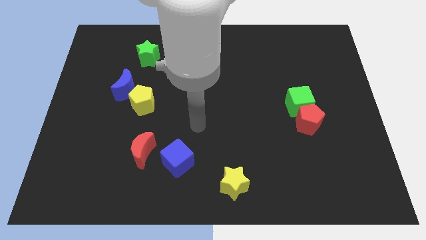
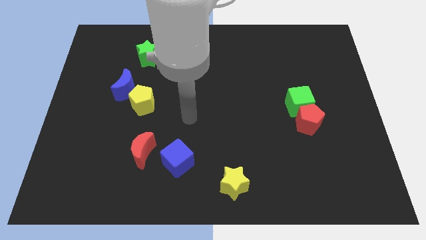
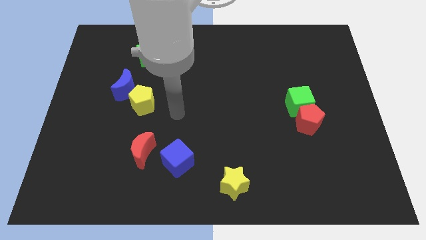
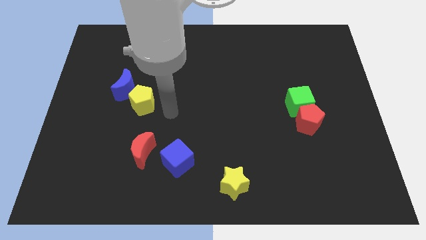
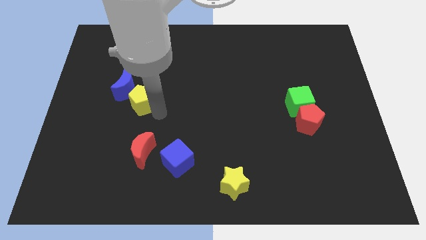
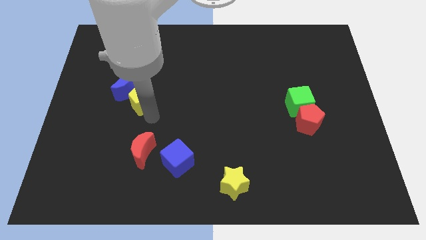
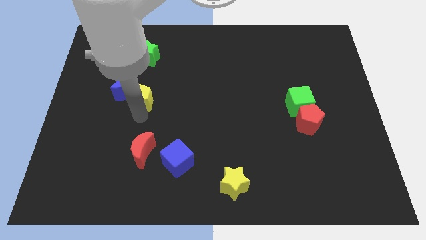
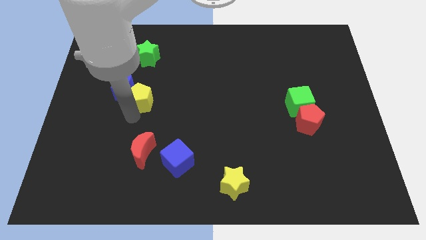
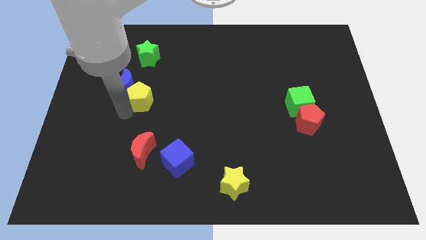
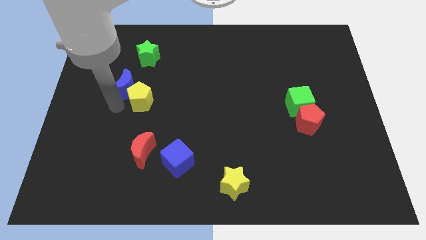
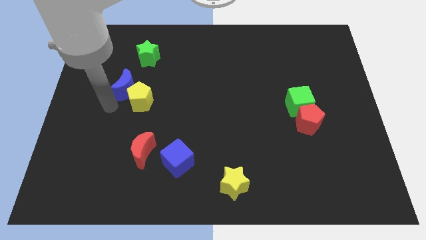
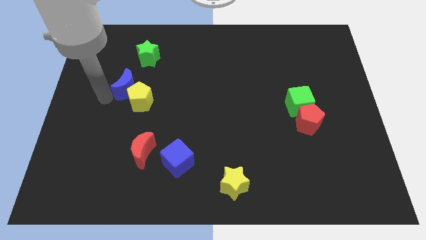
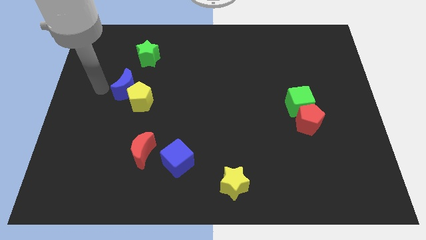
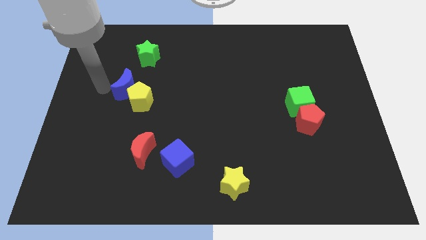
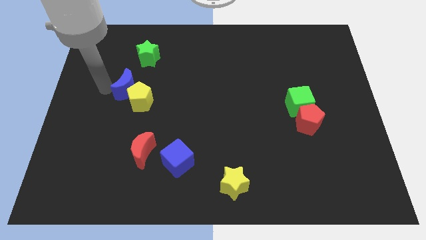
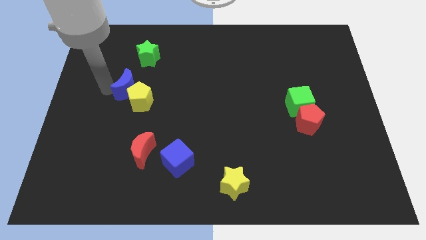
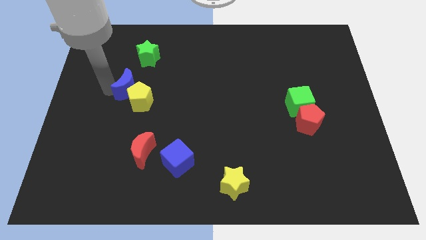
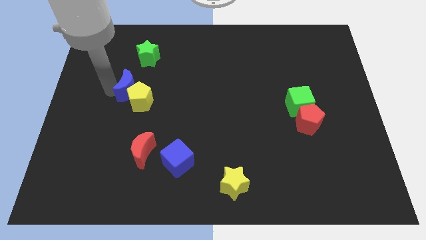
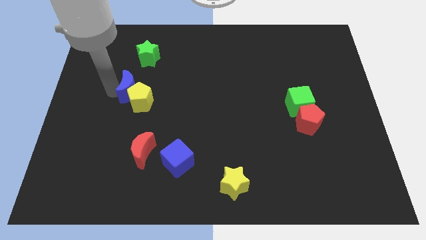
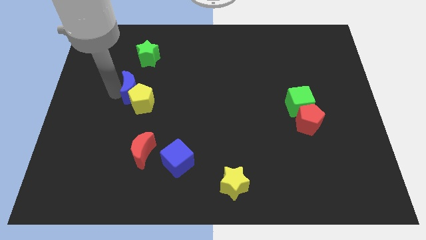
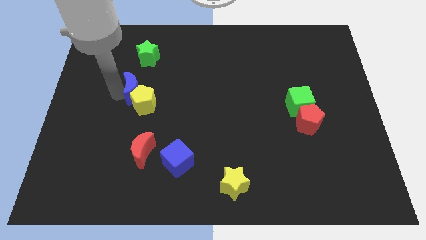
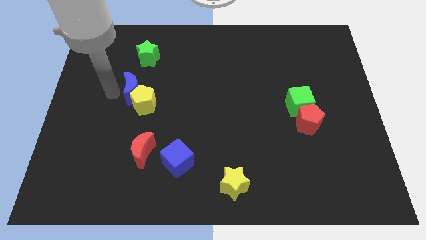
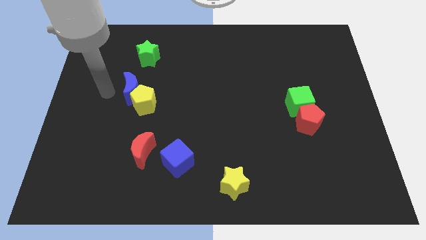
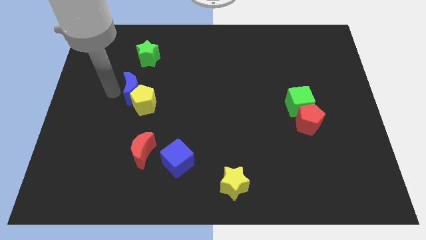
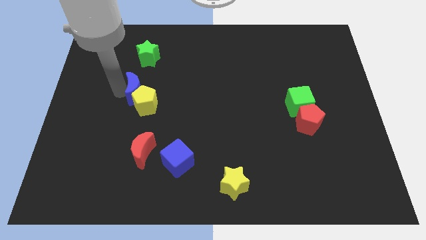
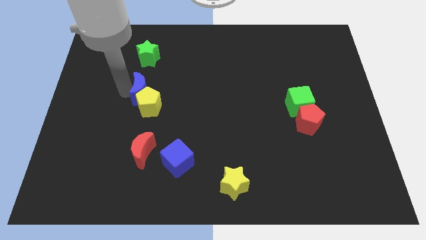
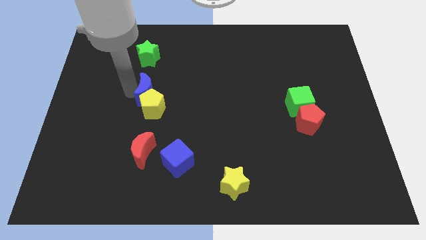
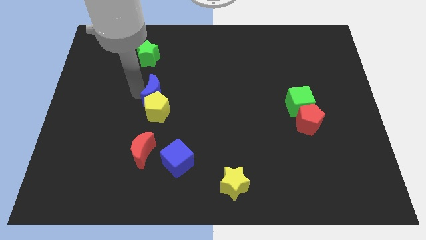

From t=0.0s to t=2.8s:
slightly slide the blue moon to the right

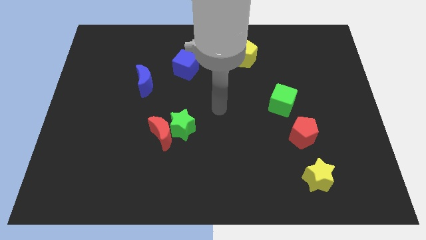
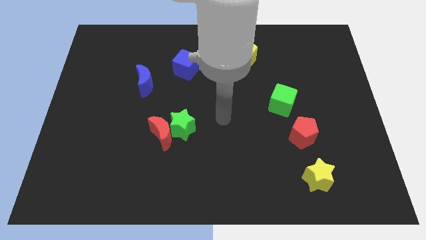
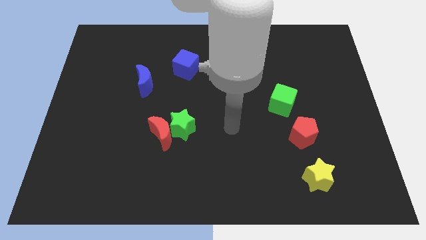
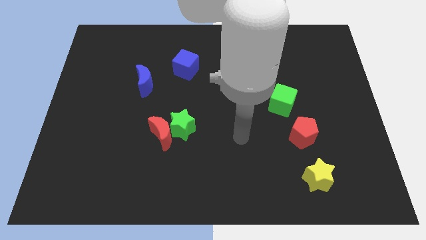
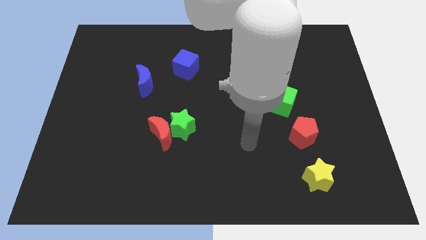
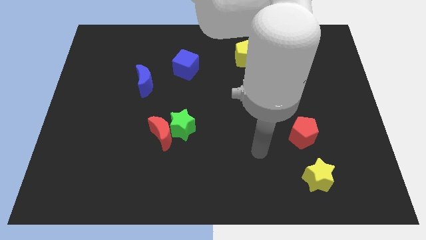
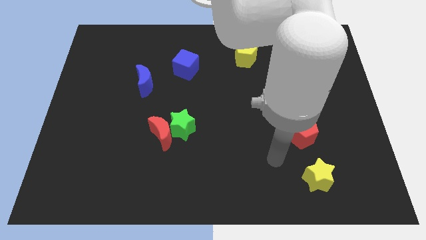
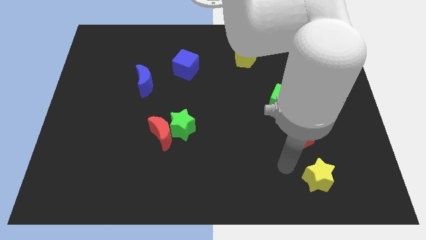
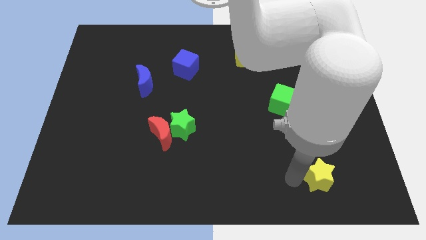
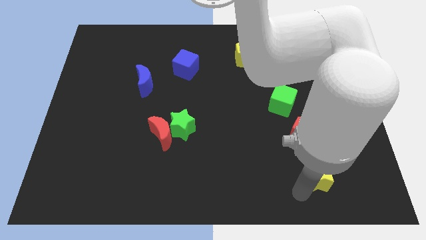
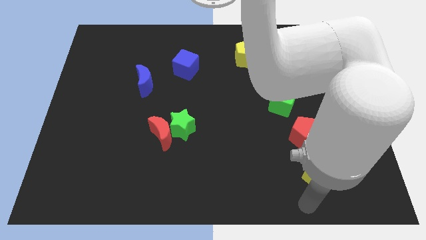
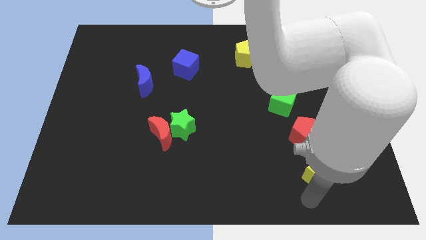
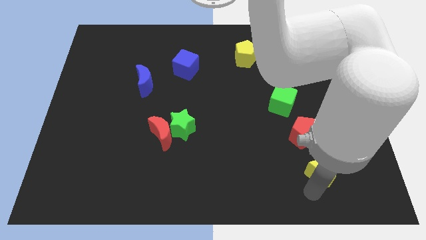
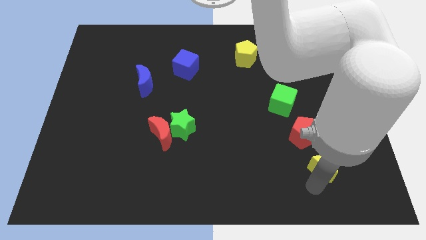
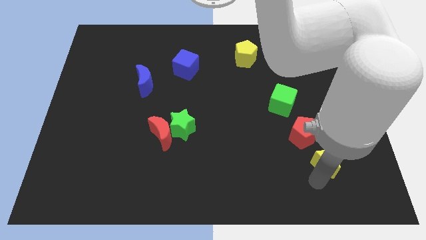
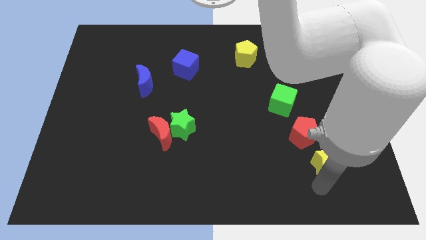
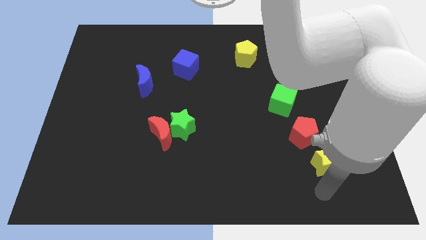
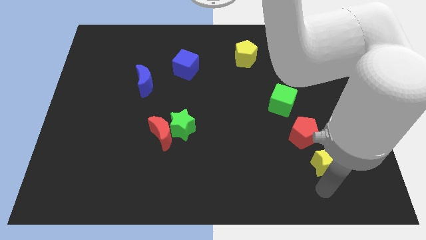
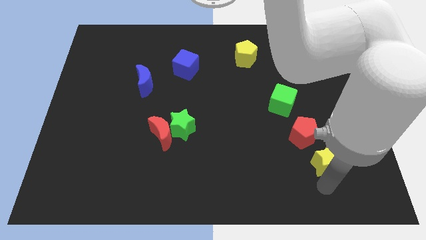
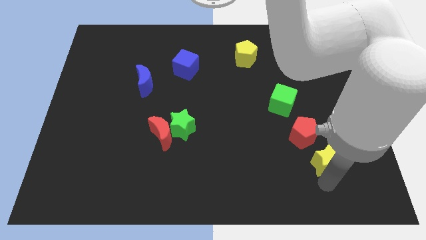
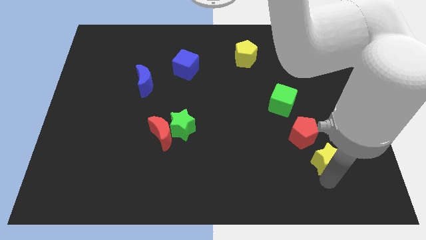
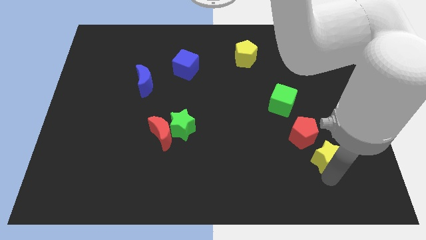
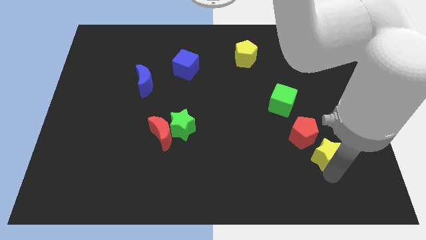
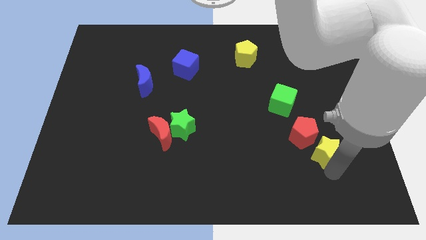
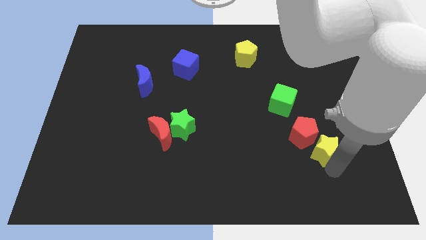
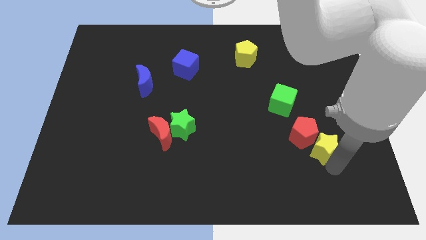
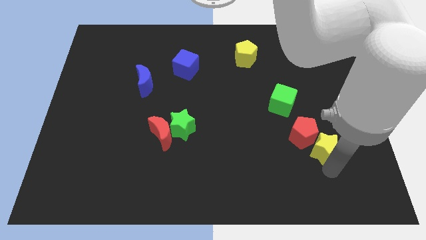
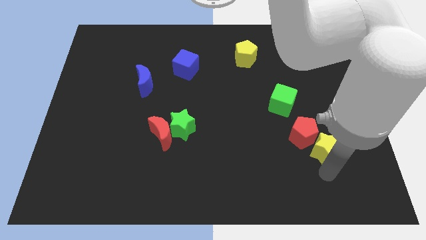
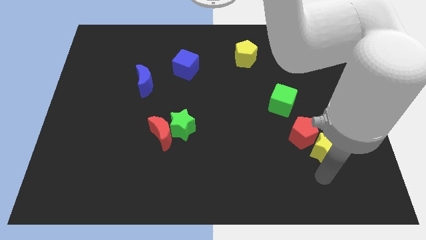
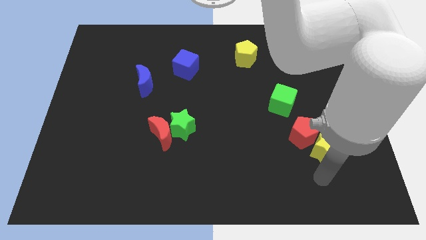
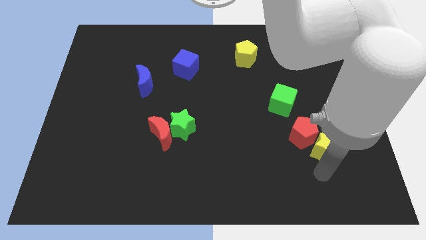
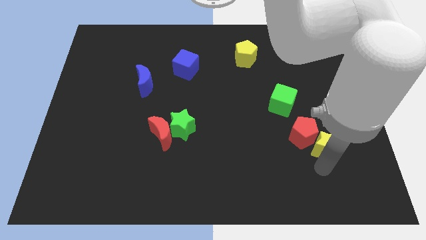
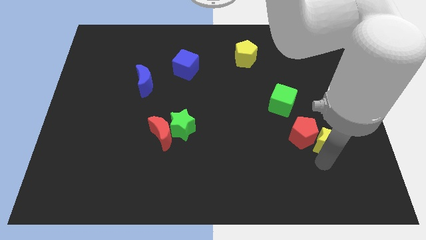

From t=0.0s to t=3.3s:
slide the yellow star somewhat up

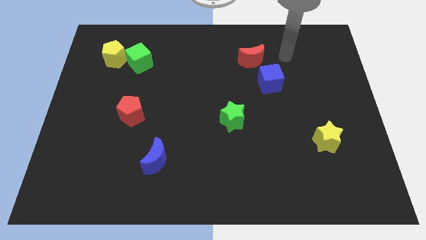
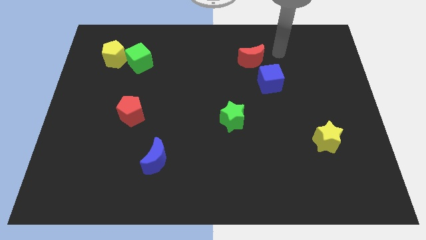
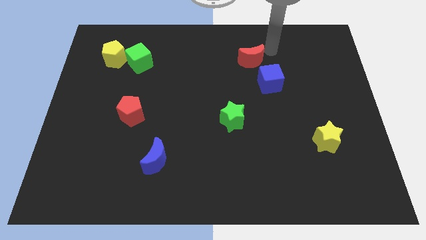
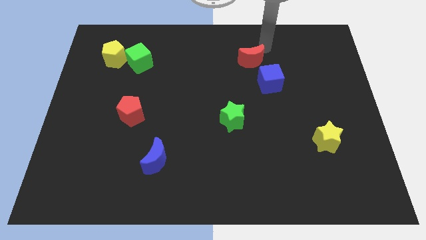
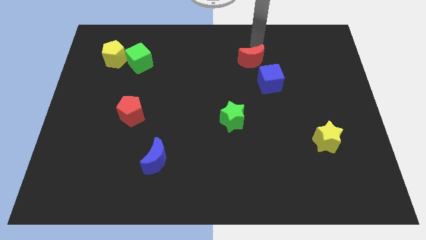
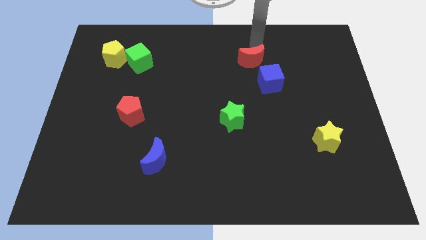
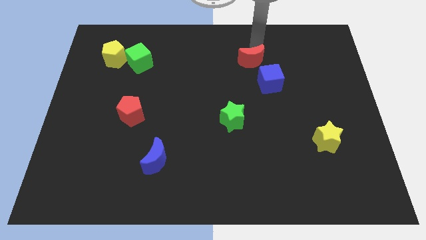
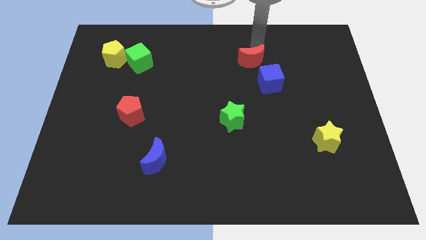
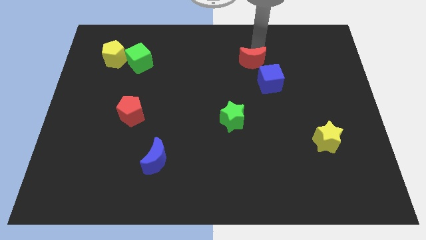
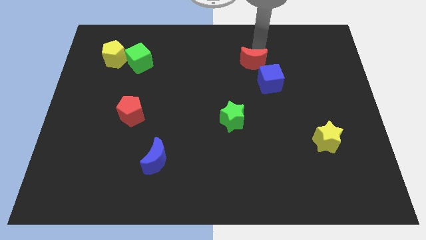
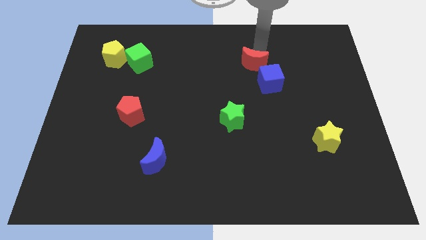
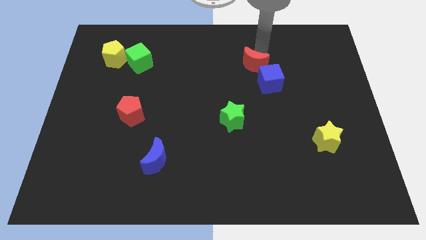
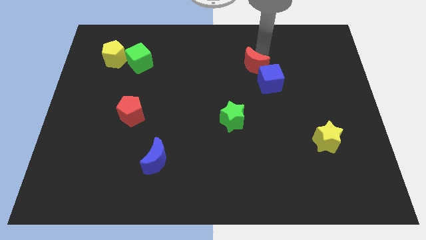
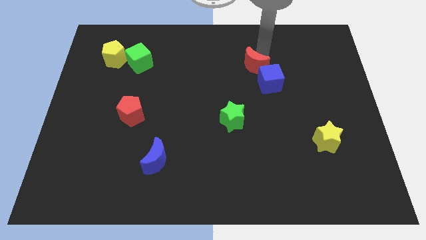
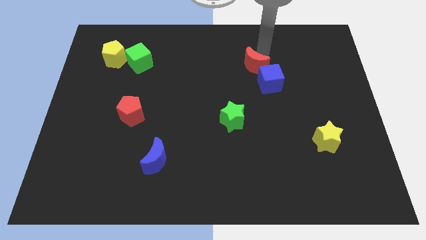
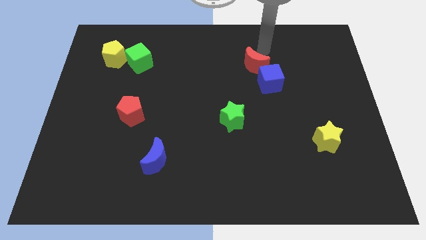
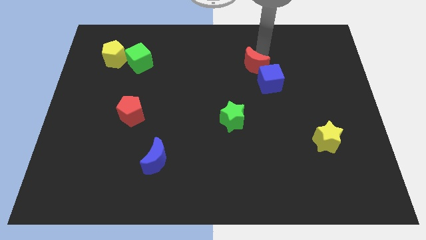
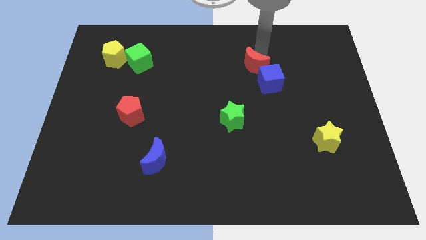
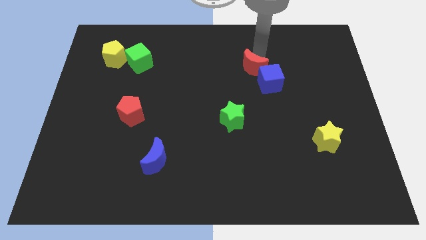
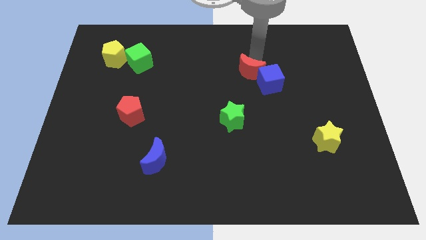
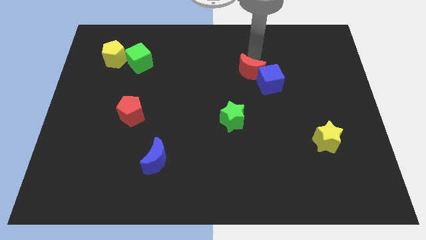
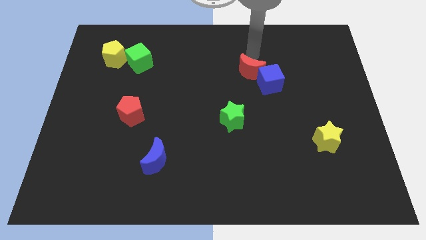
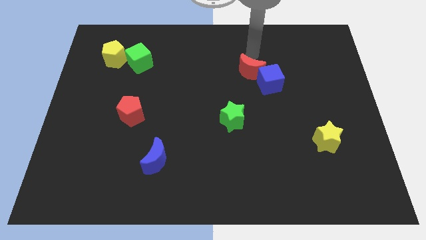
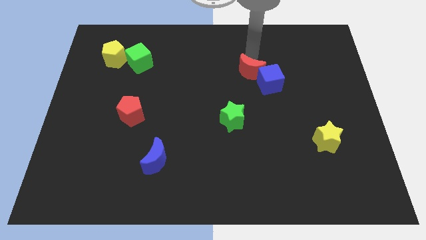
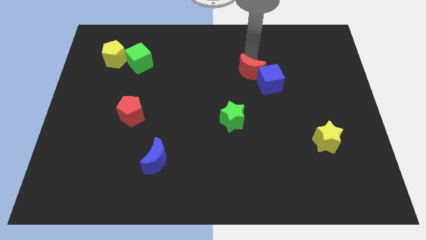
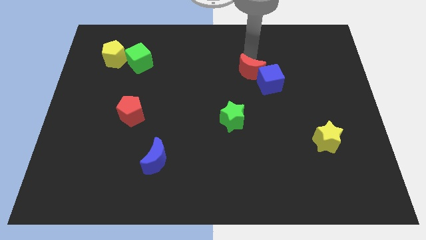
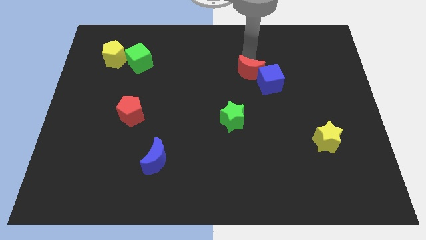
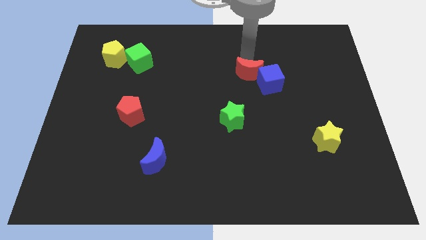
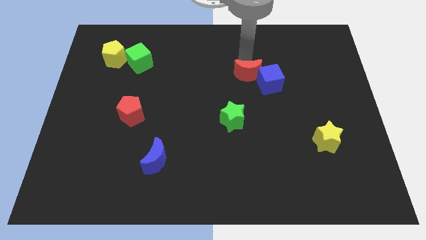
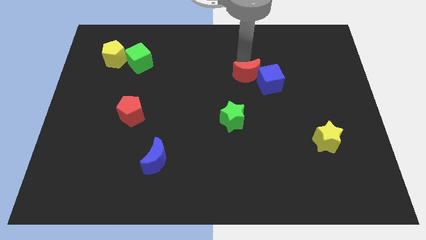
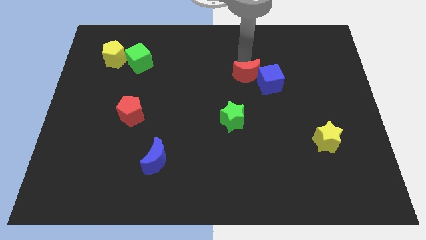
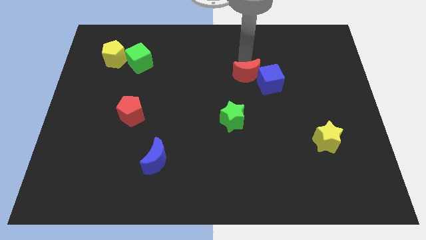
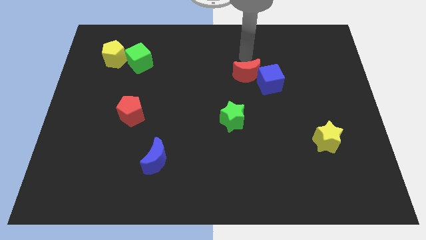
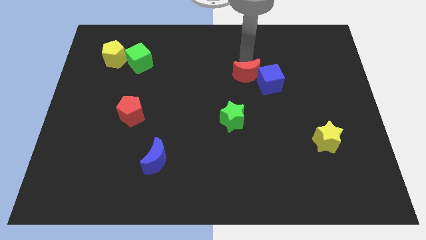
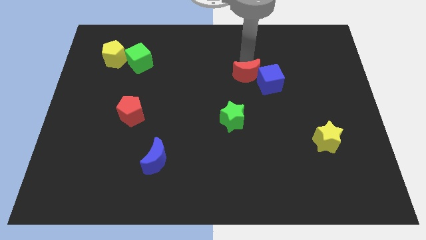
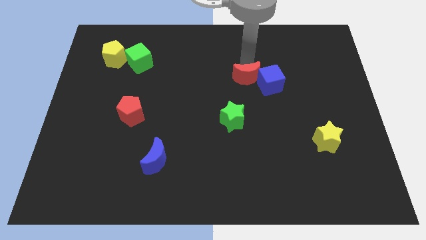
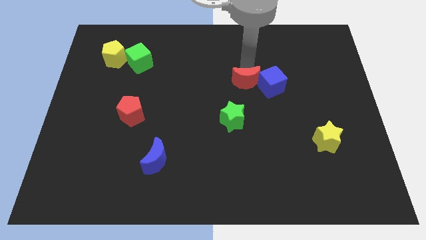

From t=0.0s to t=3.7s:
move the red moon down somewhat
